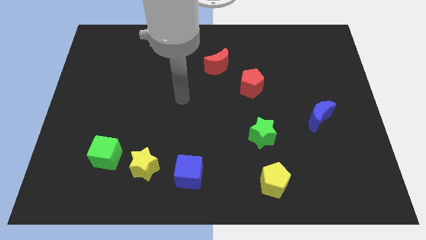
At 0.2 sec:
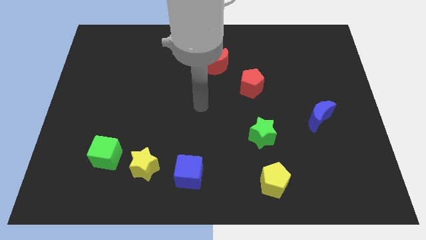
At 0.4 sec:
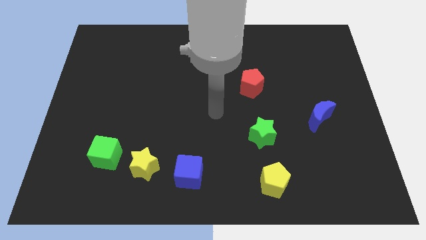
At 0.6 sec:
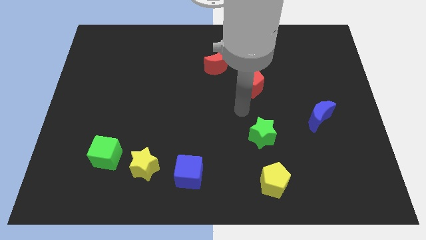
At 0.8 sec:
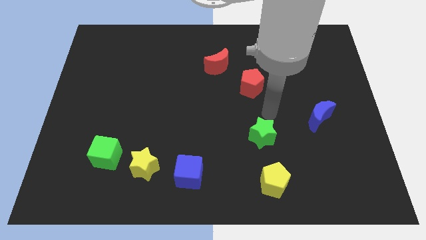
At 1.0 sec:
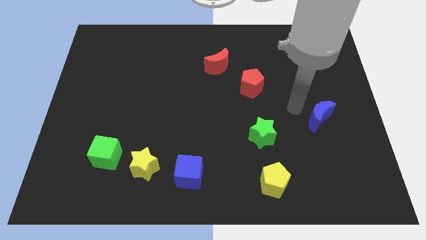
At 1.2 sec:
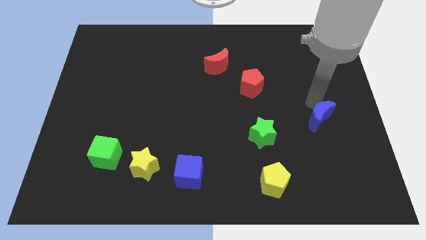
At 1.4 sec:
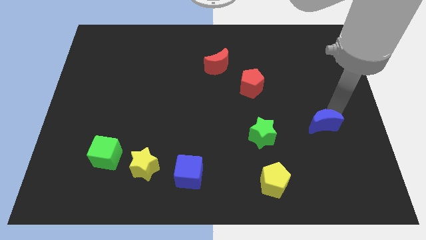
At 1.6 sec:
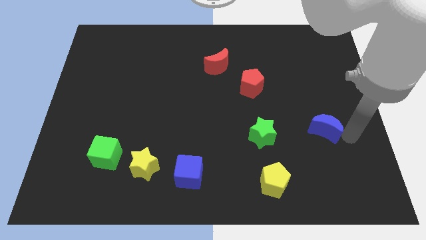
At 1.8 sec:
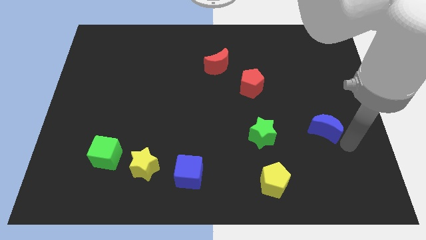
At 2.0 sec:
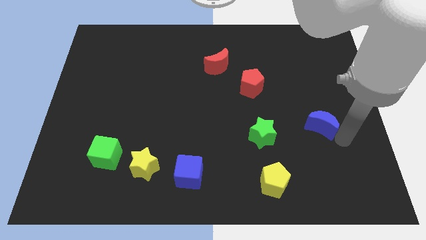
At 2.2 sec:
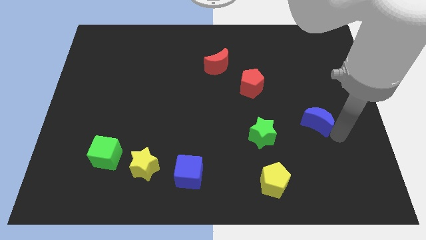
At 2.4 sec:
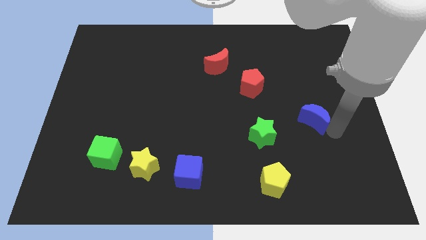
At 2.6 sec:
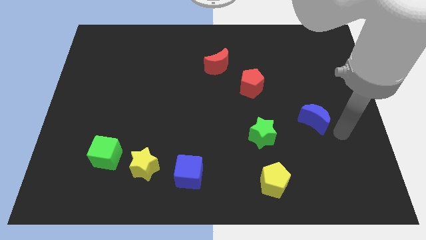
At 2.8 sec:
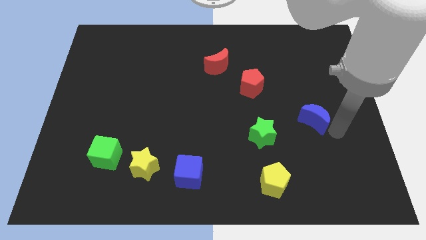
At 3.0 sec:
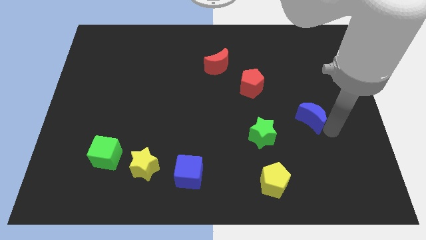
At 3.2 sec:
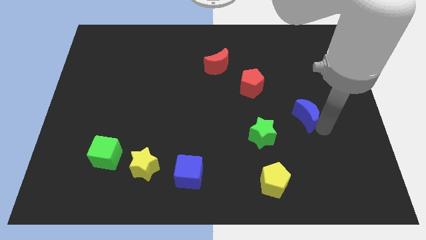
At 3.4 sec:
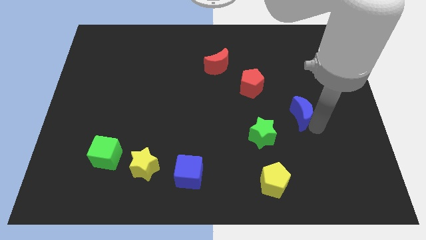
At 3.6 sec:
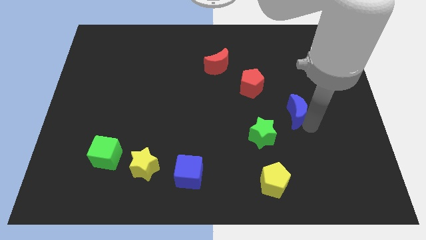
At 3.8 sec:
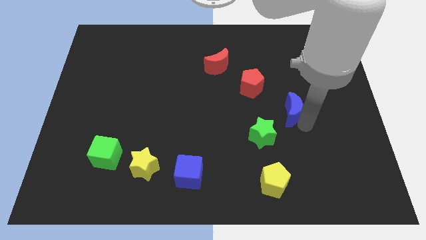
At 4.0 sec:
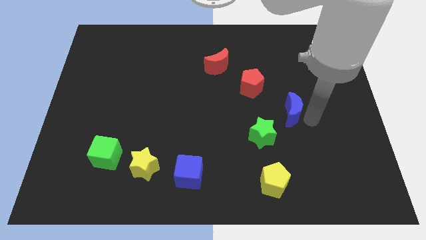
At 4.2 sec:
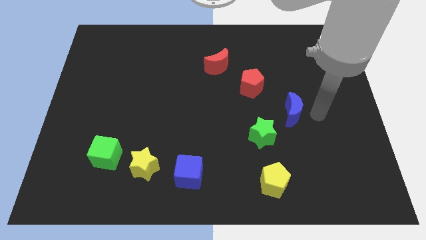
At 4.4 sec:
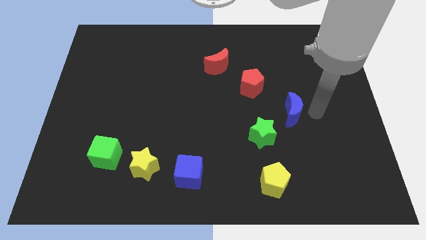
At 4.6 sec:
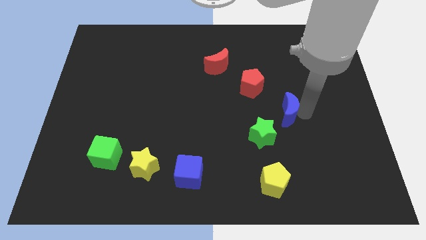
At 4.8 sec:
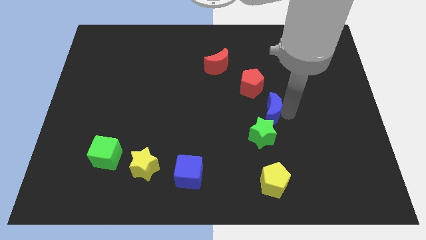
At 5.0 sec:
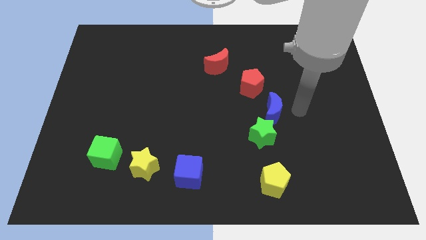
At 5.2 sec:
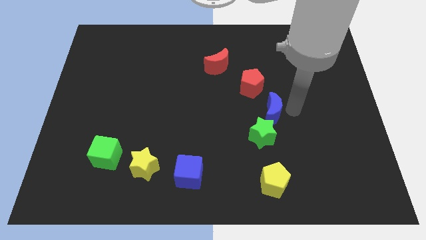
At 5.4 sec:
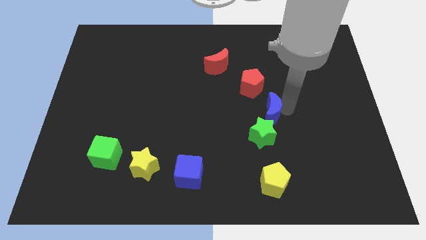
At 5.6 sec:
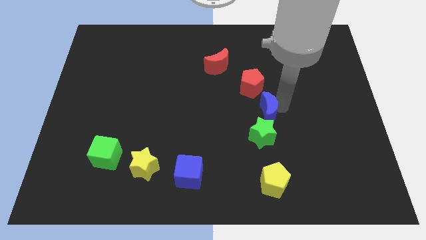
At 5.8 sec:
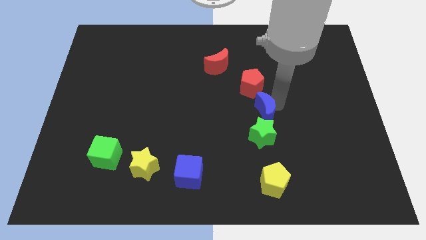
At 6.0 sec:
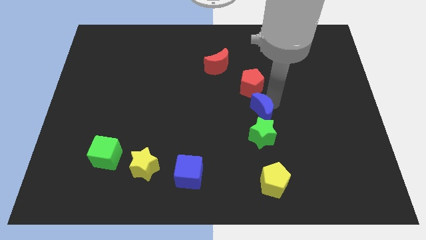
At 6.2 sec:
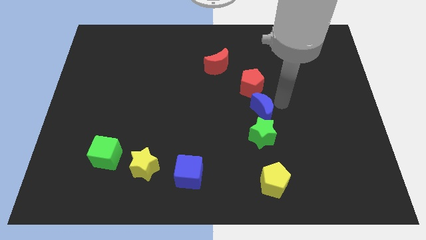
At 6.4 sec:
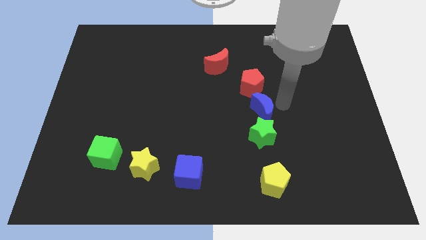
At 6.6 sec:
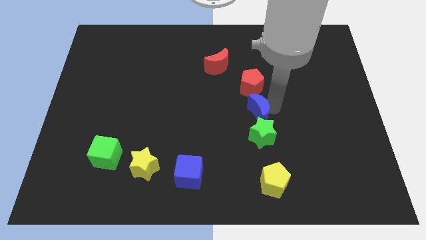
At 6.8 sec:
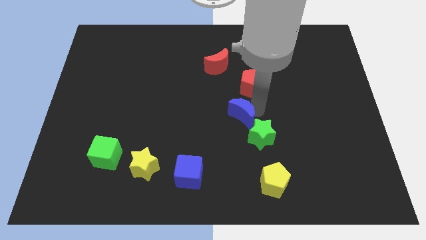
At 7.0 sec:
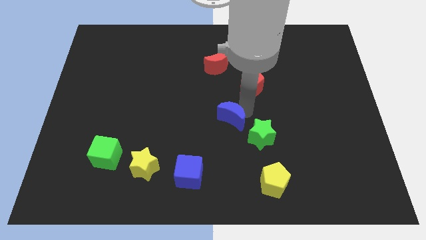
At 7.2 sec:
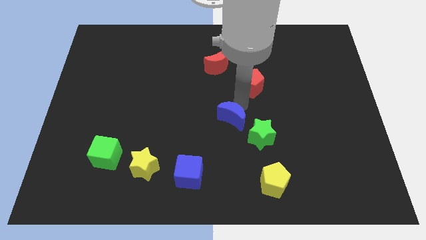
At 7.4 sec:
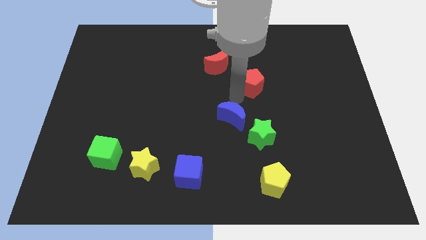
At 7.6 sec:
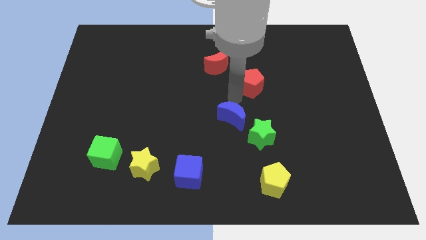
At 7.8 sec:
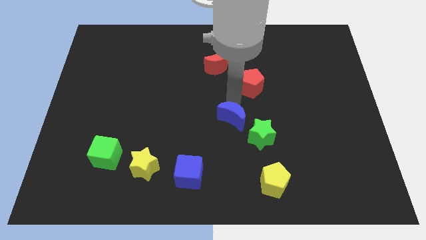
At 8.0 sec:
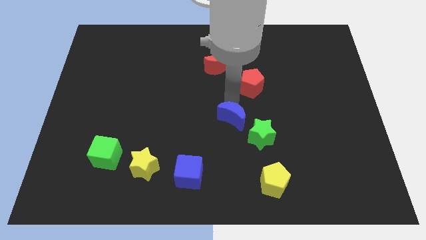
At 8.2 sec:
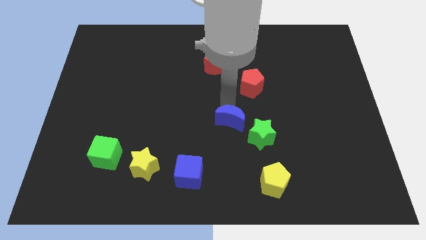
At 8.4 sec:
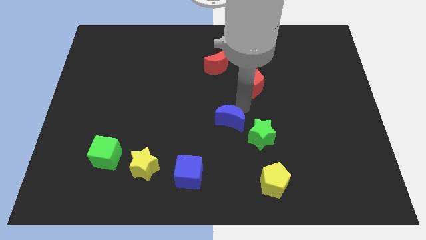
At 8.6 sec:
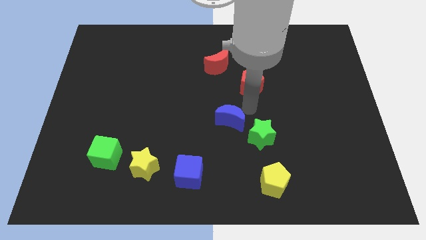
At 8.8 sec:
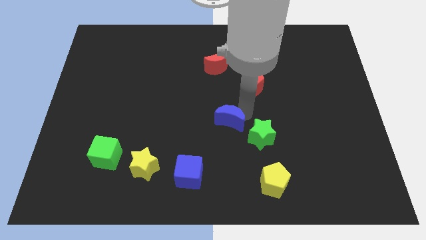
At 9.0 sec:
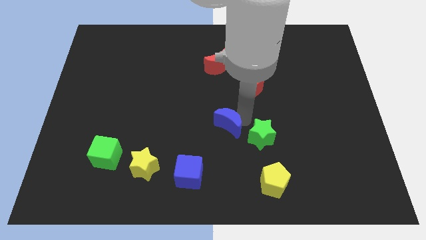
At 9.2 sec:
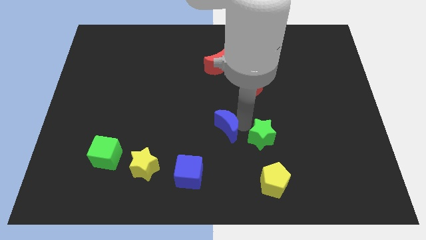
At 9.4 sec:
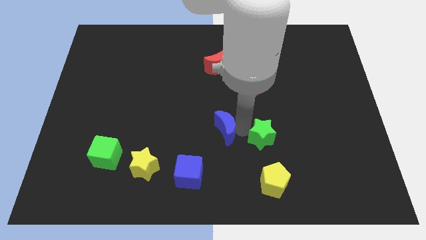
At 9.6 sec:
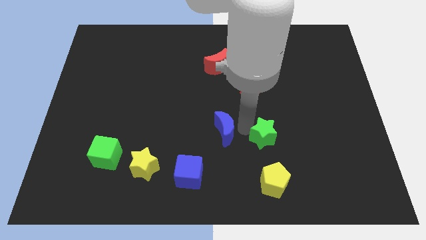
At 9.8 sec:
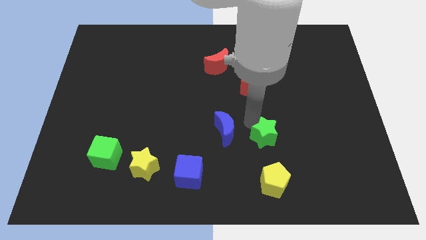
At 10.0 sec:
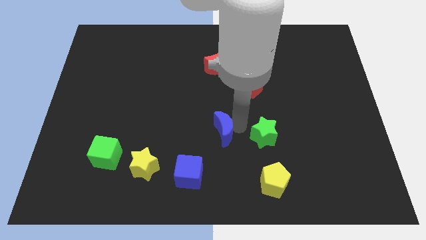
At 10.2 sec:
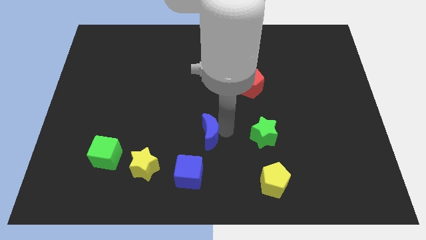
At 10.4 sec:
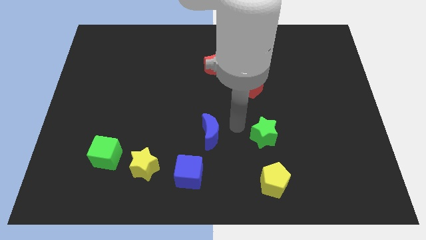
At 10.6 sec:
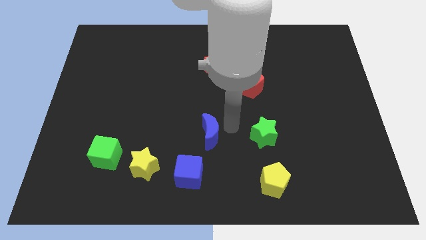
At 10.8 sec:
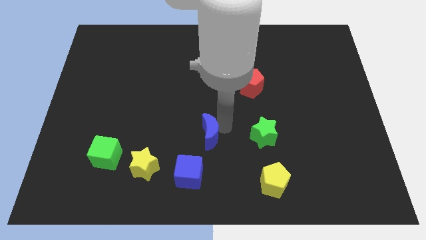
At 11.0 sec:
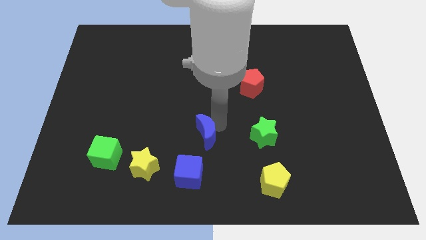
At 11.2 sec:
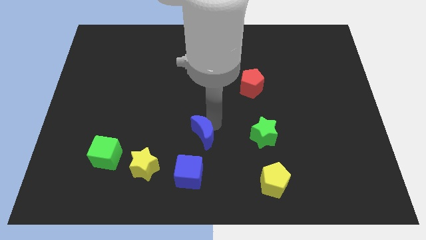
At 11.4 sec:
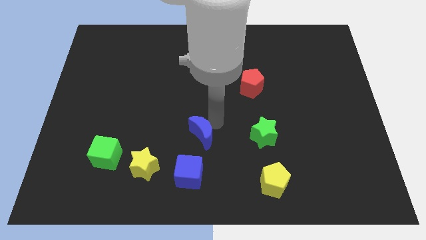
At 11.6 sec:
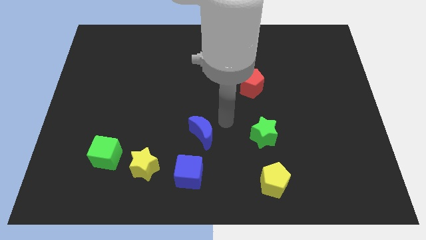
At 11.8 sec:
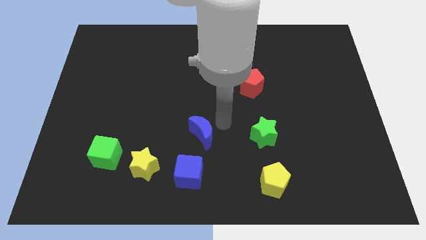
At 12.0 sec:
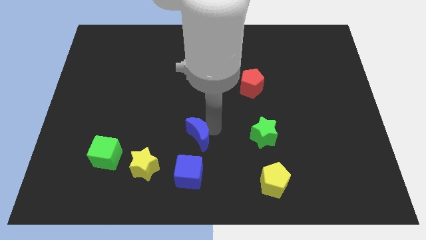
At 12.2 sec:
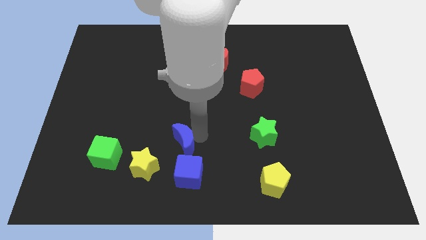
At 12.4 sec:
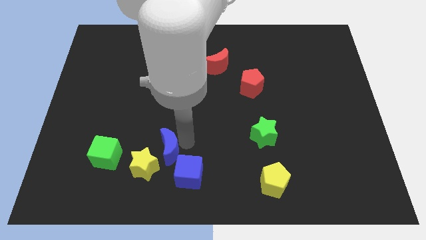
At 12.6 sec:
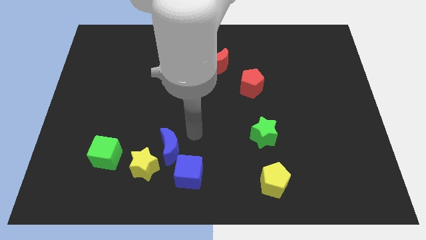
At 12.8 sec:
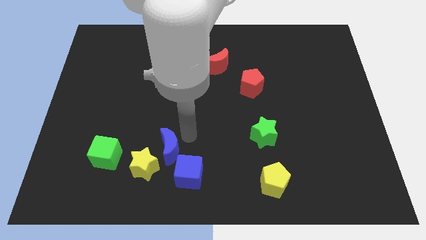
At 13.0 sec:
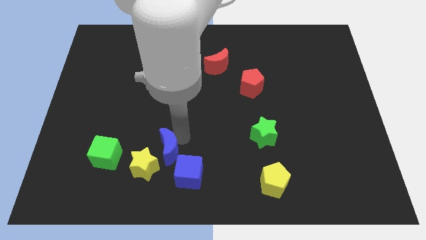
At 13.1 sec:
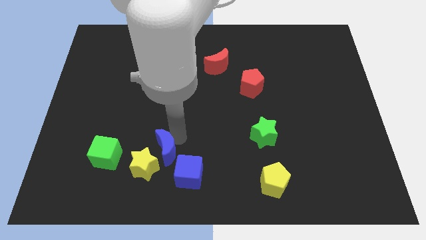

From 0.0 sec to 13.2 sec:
slide the blue moon towards the yellow star

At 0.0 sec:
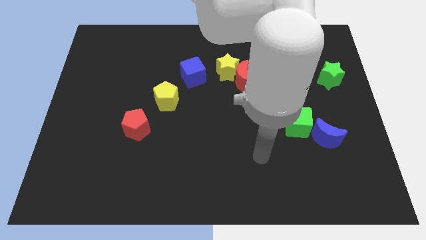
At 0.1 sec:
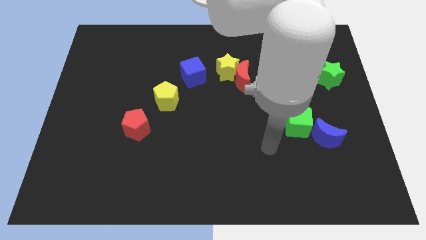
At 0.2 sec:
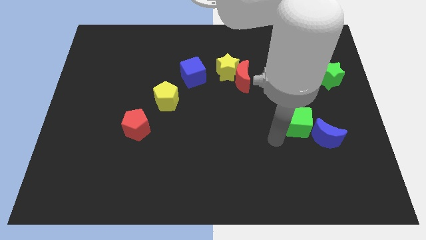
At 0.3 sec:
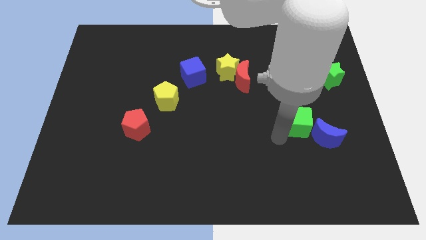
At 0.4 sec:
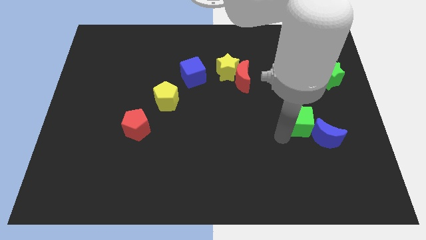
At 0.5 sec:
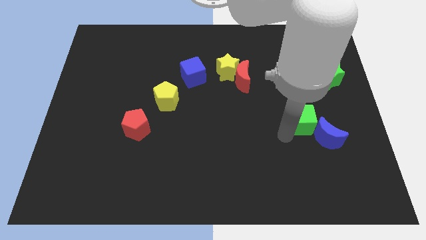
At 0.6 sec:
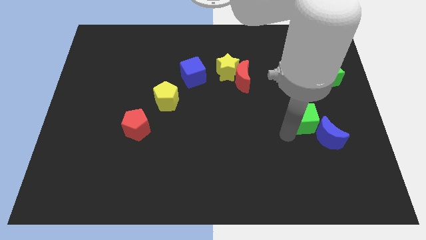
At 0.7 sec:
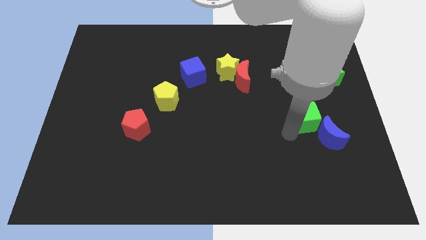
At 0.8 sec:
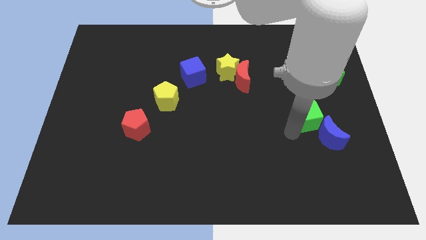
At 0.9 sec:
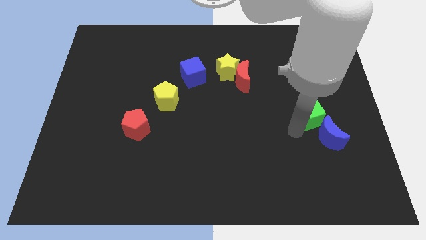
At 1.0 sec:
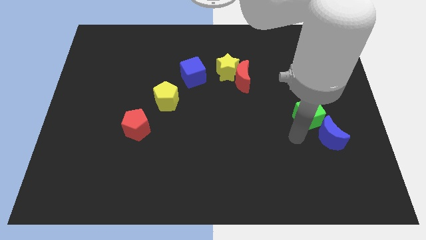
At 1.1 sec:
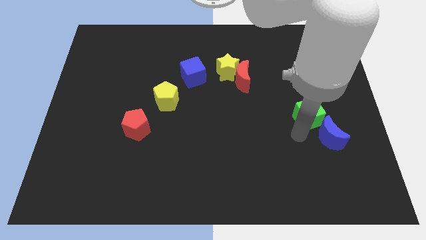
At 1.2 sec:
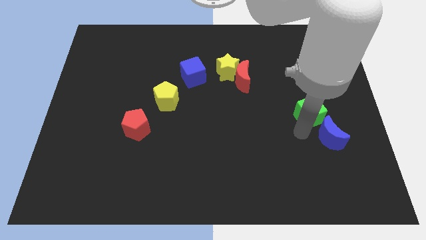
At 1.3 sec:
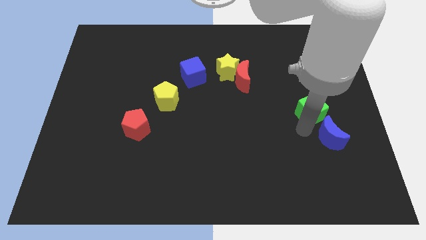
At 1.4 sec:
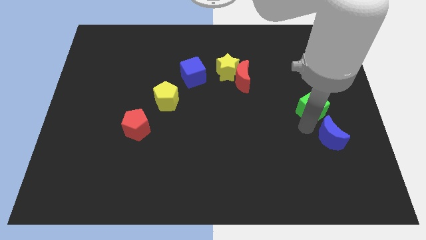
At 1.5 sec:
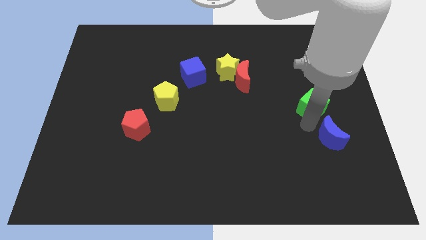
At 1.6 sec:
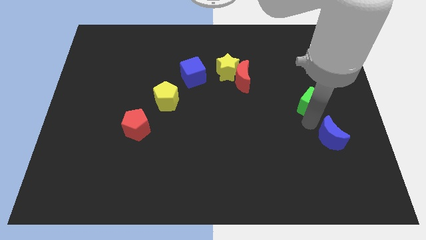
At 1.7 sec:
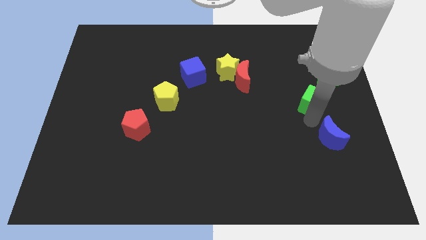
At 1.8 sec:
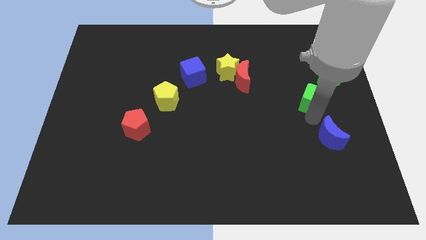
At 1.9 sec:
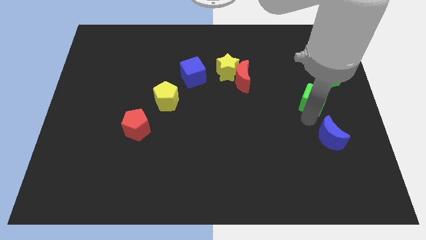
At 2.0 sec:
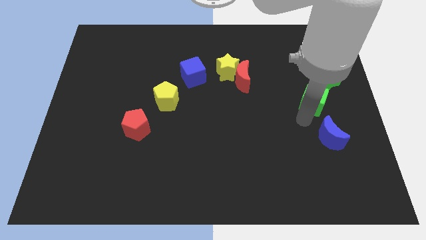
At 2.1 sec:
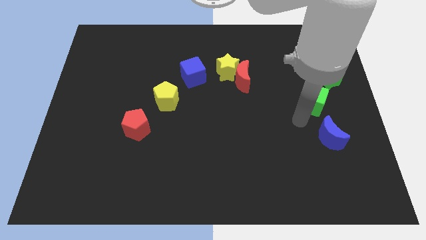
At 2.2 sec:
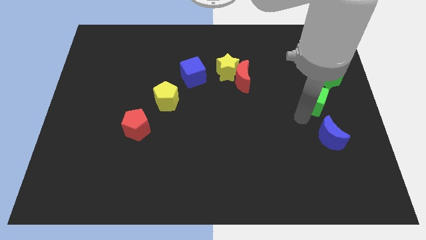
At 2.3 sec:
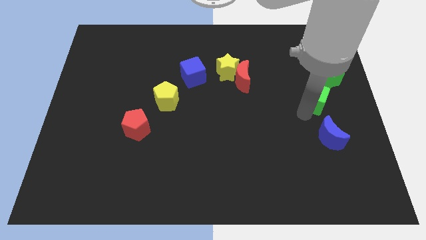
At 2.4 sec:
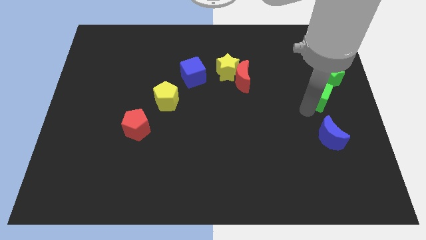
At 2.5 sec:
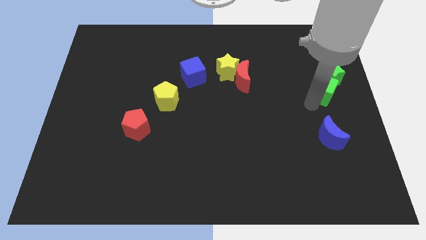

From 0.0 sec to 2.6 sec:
slide the green cube next to the green star
